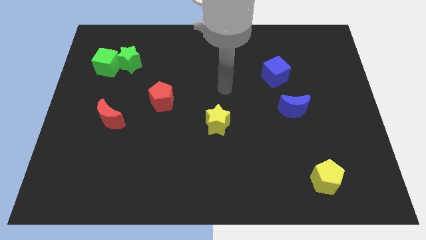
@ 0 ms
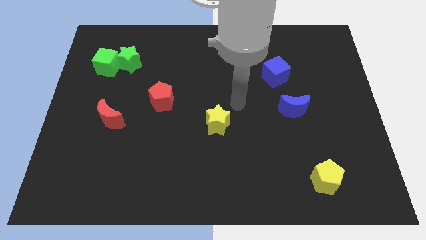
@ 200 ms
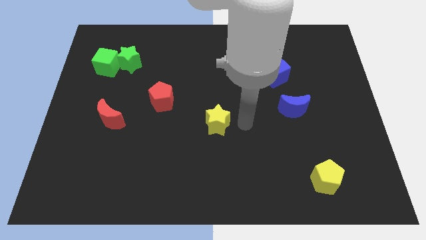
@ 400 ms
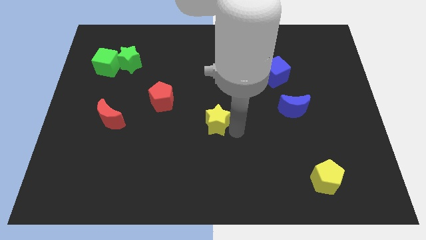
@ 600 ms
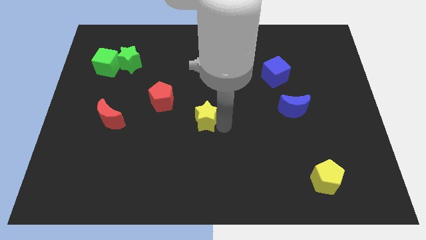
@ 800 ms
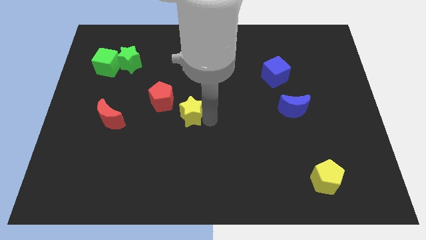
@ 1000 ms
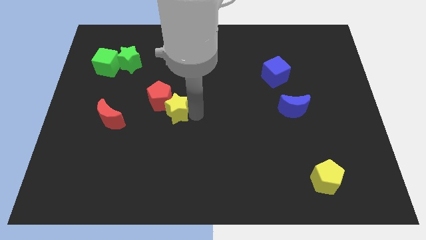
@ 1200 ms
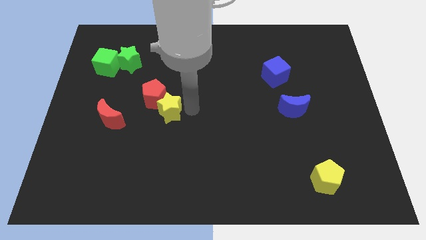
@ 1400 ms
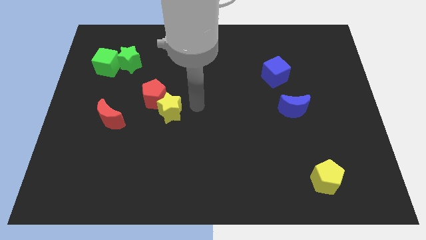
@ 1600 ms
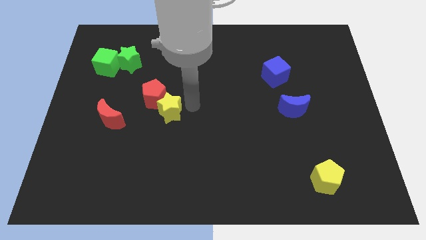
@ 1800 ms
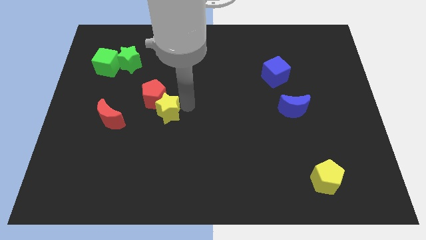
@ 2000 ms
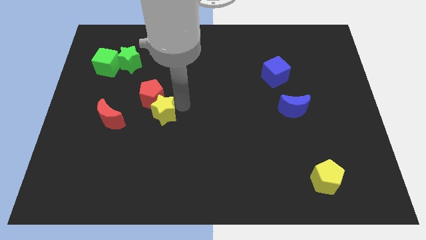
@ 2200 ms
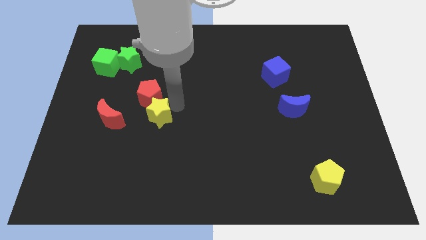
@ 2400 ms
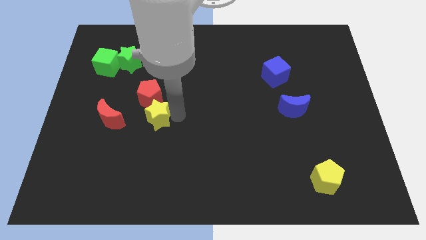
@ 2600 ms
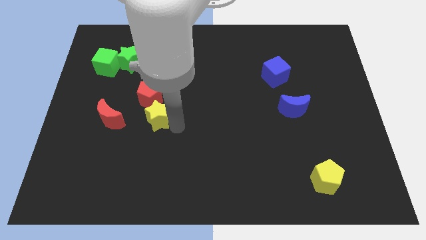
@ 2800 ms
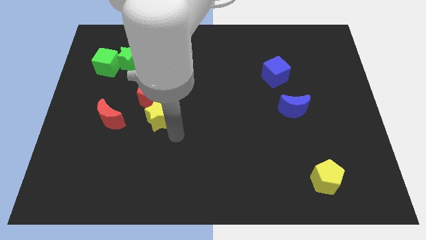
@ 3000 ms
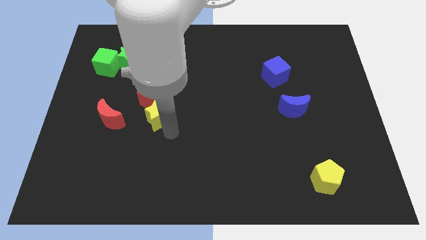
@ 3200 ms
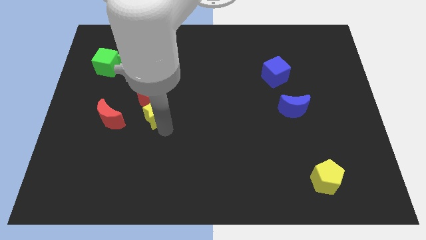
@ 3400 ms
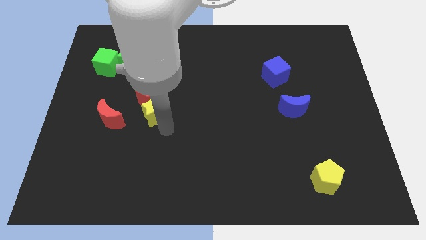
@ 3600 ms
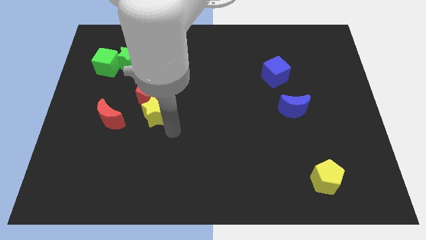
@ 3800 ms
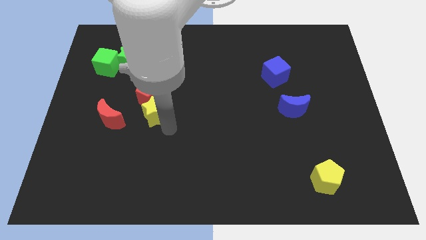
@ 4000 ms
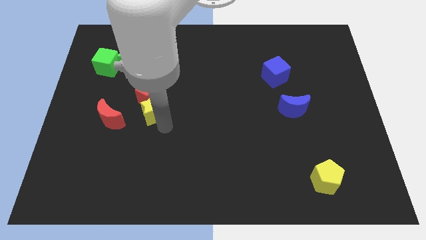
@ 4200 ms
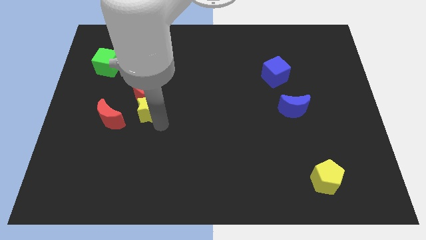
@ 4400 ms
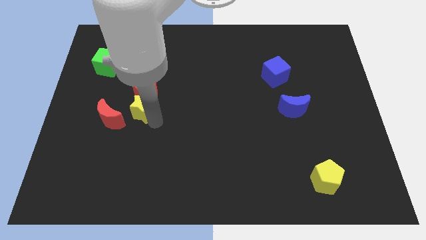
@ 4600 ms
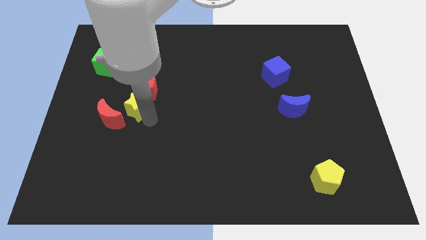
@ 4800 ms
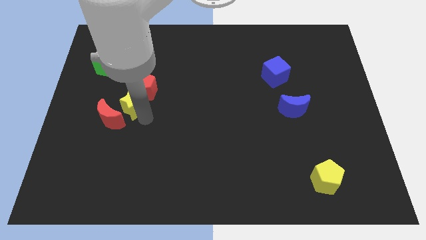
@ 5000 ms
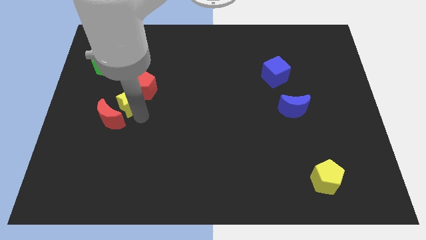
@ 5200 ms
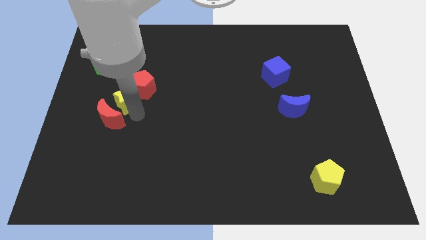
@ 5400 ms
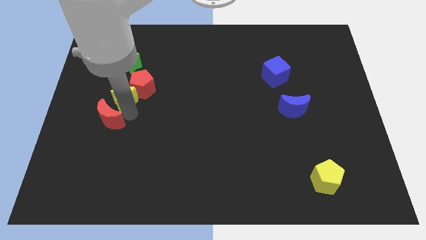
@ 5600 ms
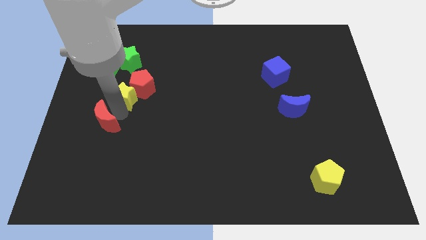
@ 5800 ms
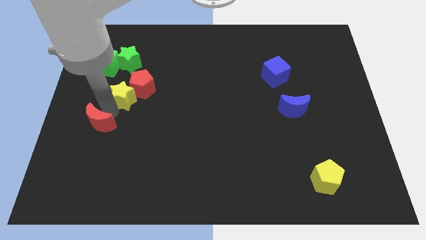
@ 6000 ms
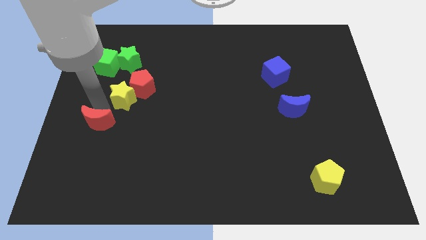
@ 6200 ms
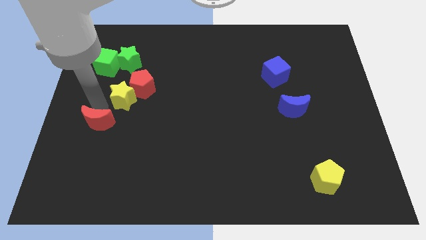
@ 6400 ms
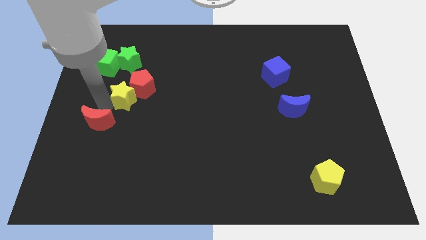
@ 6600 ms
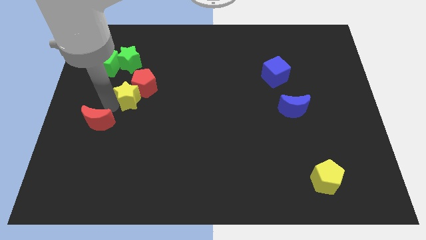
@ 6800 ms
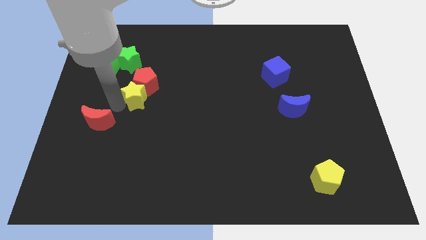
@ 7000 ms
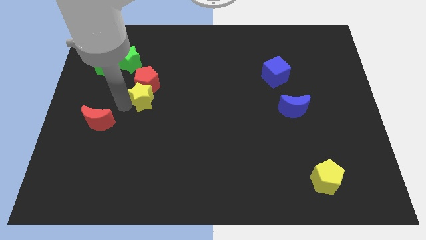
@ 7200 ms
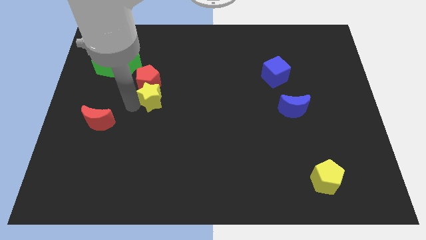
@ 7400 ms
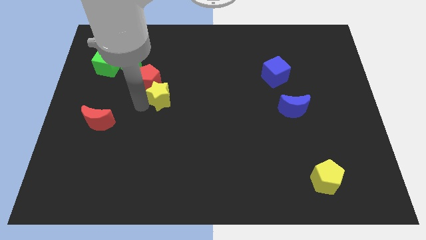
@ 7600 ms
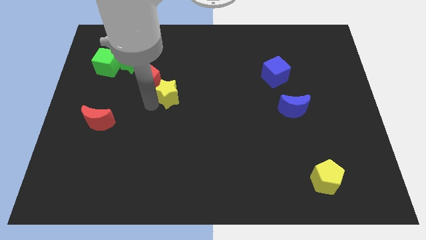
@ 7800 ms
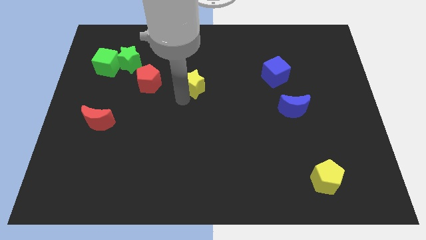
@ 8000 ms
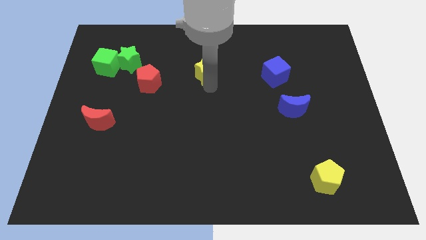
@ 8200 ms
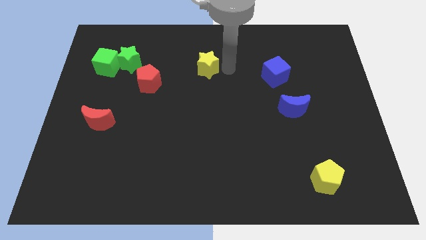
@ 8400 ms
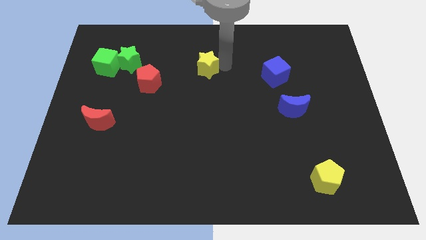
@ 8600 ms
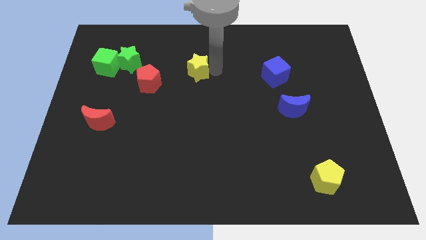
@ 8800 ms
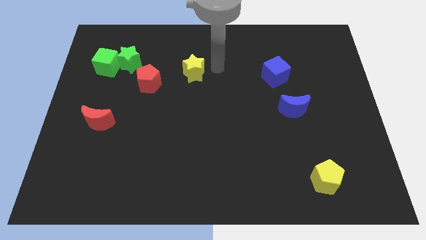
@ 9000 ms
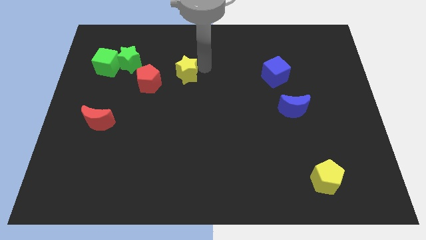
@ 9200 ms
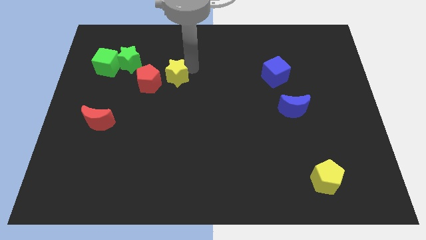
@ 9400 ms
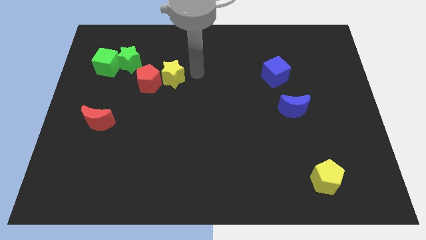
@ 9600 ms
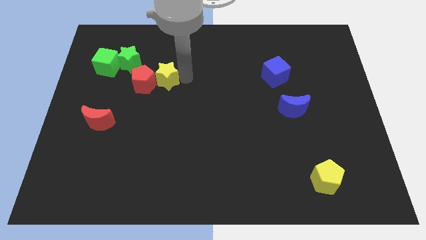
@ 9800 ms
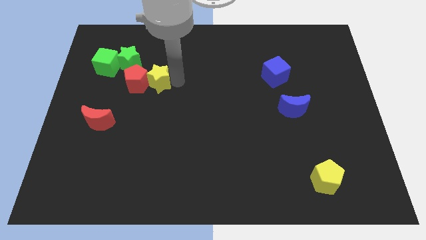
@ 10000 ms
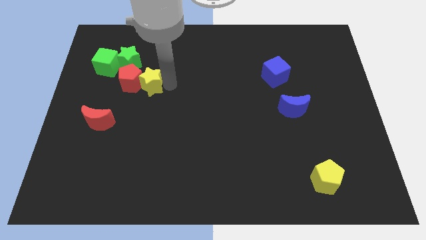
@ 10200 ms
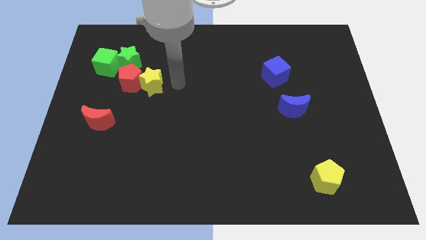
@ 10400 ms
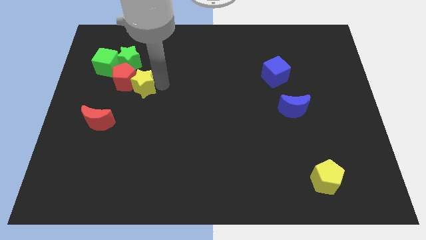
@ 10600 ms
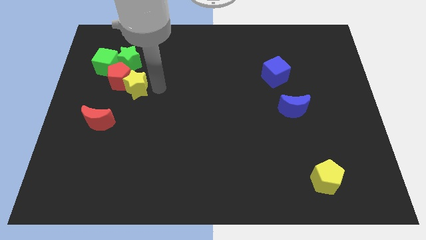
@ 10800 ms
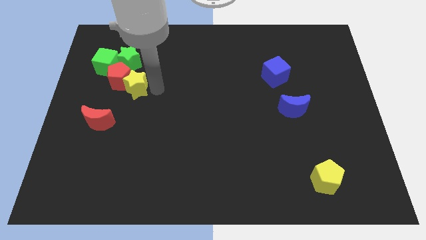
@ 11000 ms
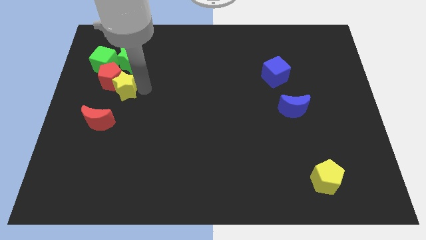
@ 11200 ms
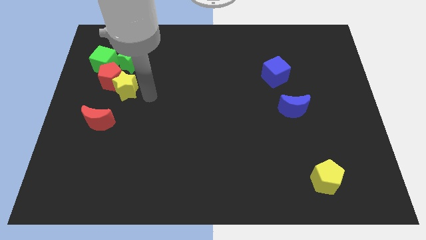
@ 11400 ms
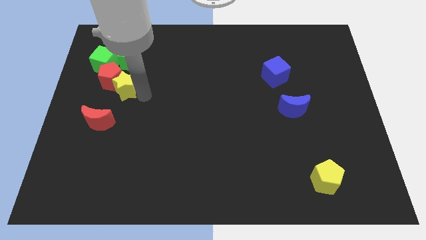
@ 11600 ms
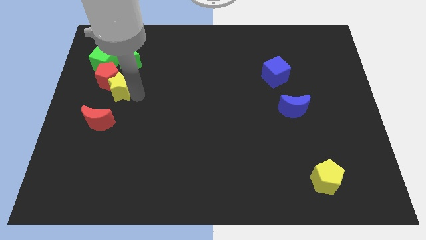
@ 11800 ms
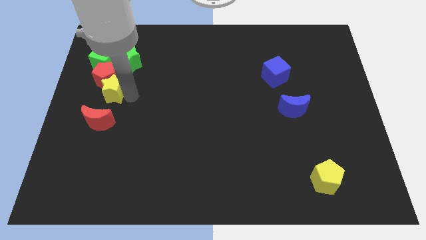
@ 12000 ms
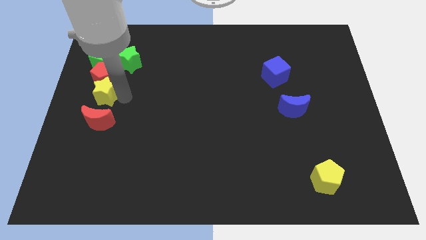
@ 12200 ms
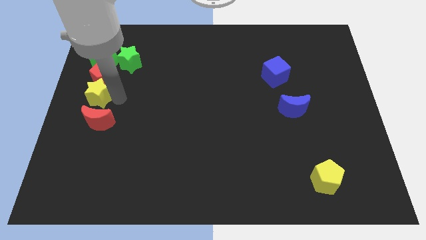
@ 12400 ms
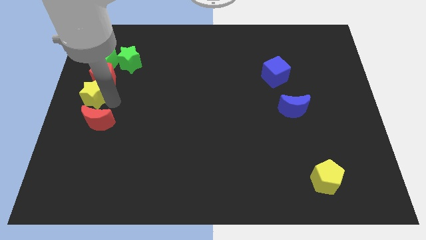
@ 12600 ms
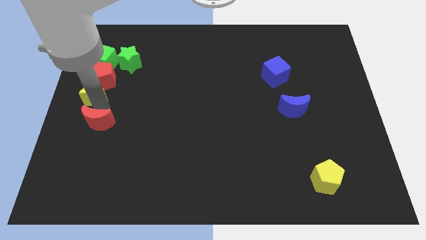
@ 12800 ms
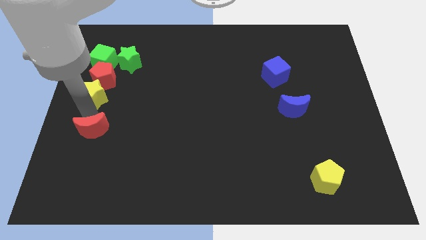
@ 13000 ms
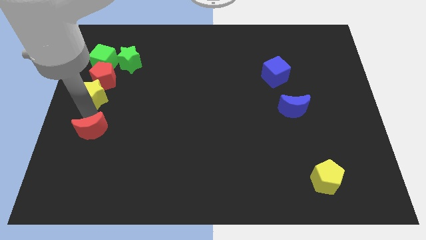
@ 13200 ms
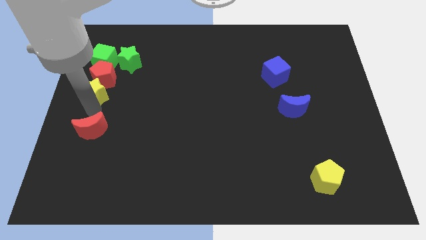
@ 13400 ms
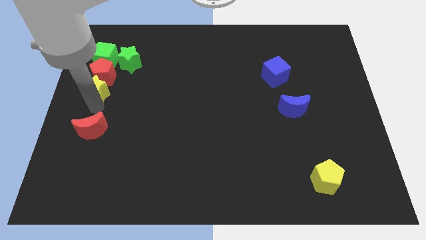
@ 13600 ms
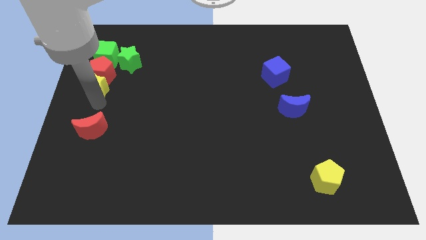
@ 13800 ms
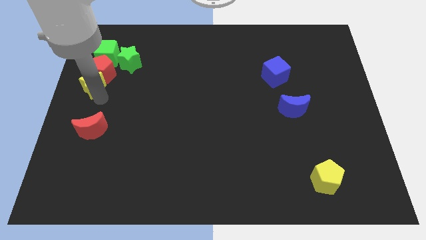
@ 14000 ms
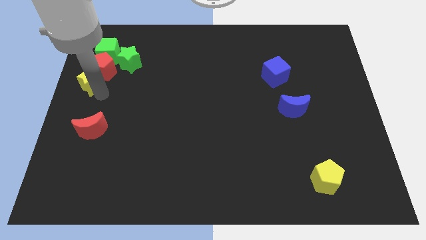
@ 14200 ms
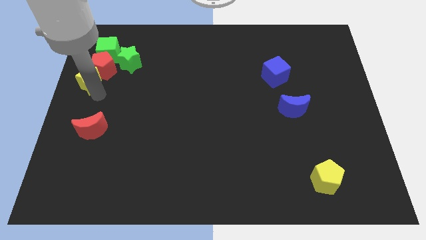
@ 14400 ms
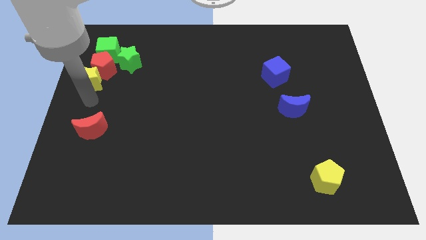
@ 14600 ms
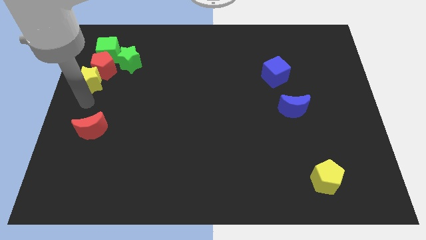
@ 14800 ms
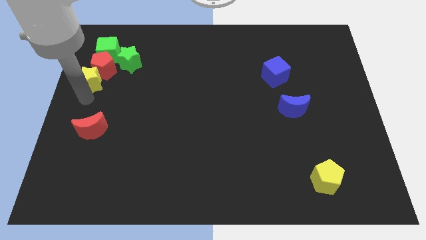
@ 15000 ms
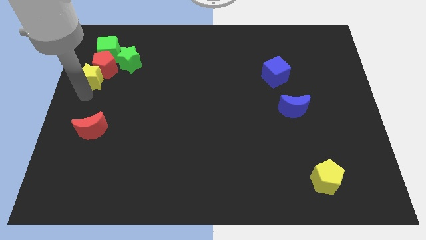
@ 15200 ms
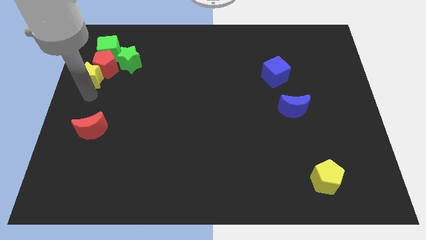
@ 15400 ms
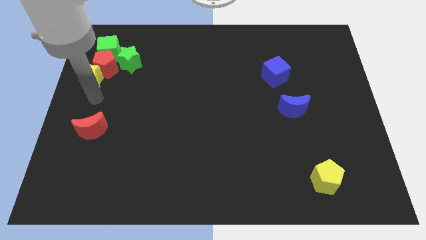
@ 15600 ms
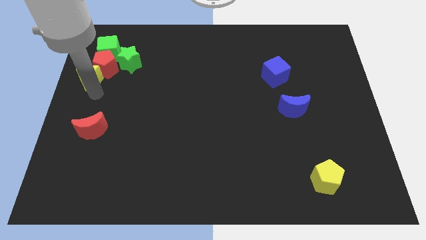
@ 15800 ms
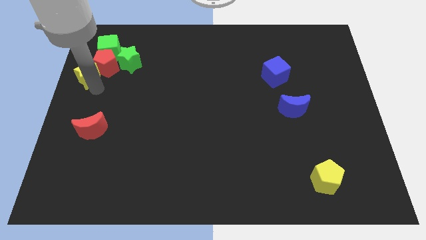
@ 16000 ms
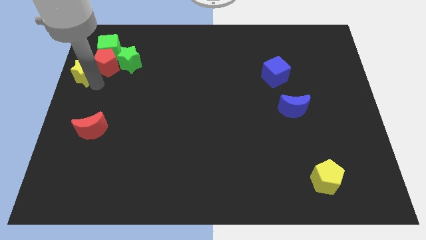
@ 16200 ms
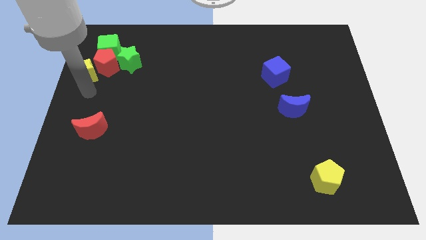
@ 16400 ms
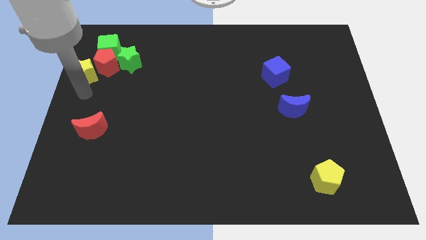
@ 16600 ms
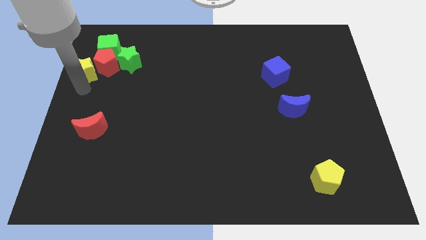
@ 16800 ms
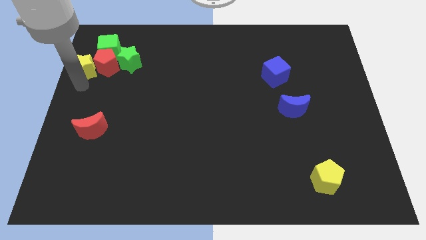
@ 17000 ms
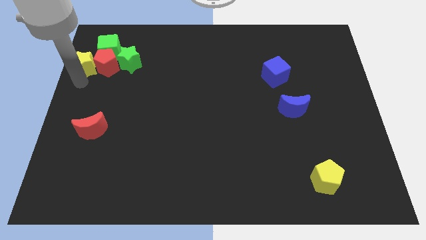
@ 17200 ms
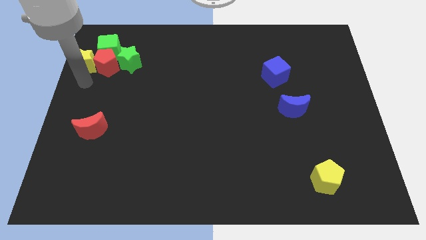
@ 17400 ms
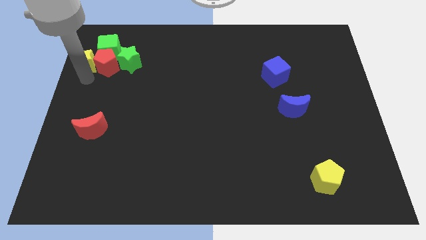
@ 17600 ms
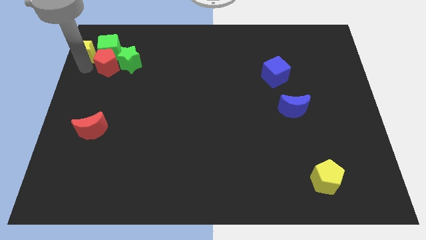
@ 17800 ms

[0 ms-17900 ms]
slide the yellow star to the top left of the board
